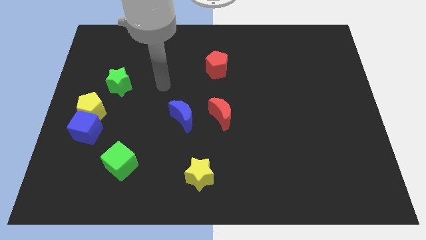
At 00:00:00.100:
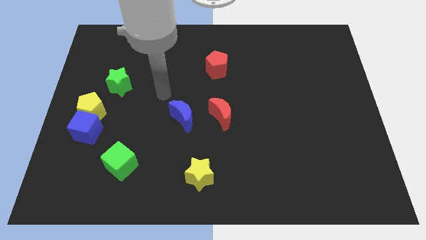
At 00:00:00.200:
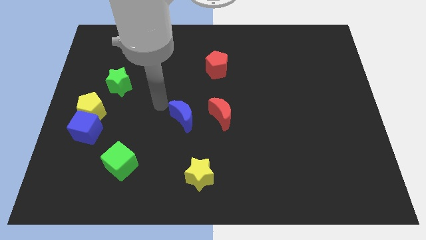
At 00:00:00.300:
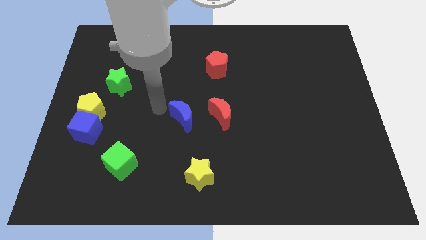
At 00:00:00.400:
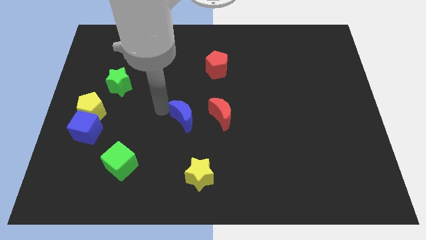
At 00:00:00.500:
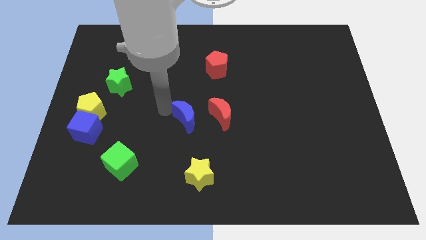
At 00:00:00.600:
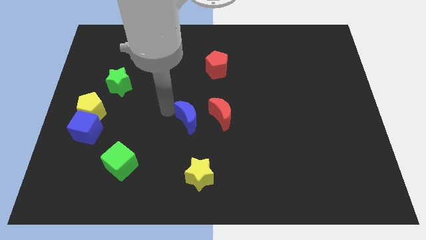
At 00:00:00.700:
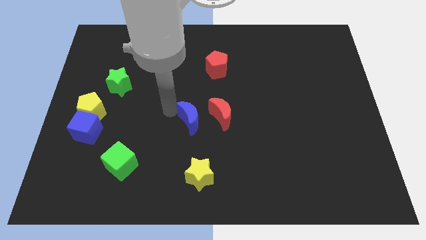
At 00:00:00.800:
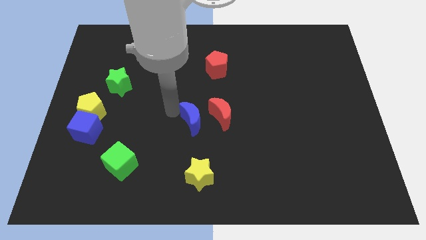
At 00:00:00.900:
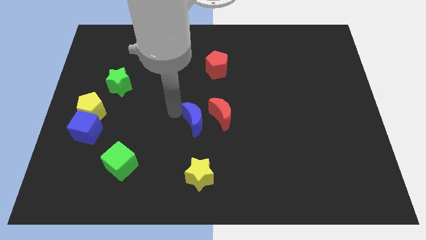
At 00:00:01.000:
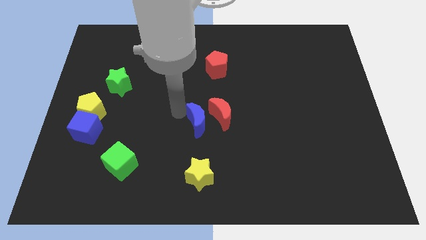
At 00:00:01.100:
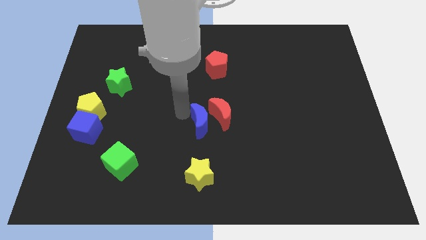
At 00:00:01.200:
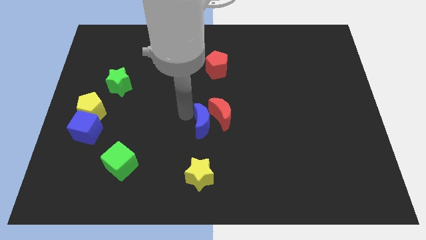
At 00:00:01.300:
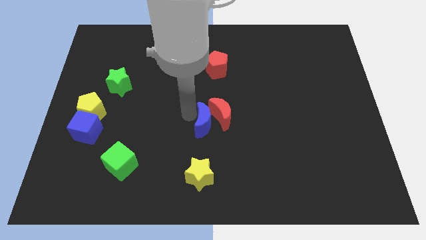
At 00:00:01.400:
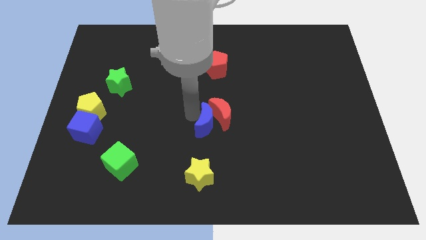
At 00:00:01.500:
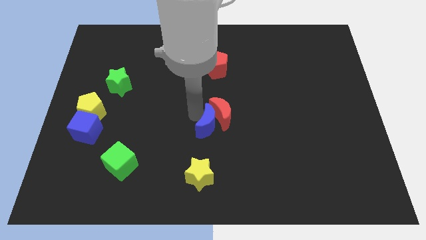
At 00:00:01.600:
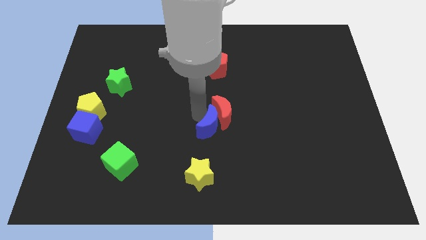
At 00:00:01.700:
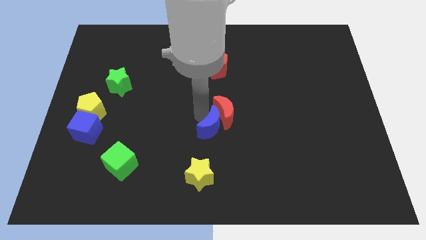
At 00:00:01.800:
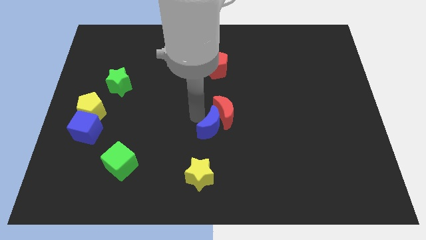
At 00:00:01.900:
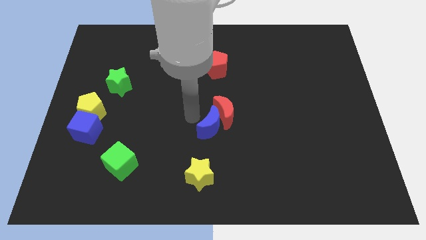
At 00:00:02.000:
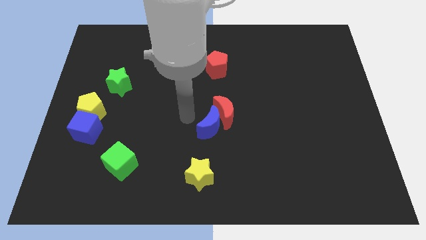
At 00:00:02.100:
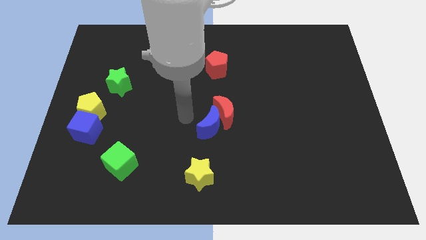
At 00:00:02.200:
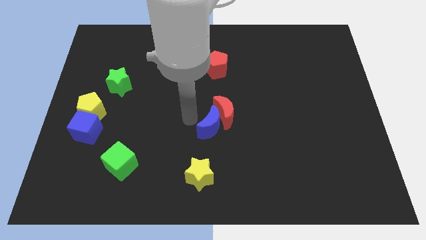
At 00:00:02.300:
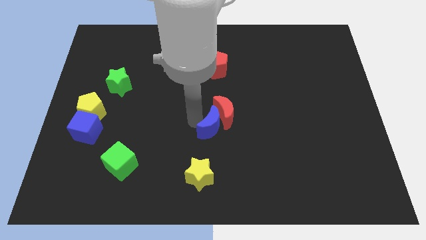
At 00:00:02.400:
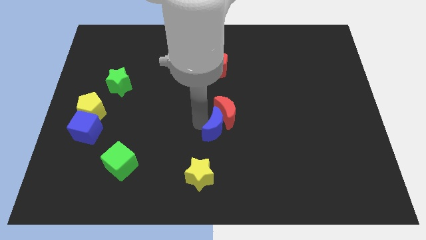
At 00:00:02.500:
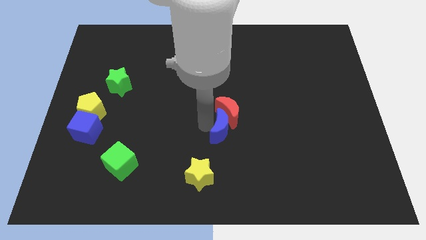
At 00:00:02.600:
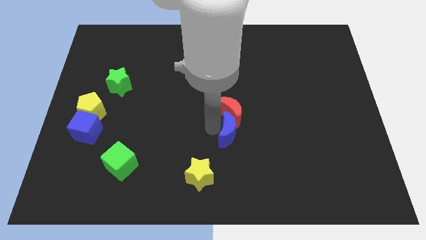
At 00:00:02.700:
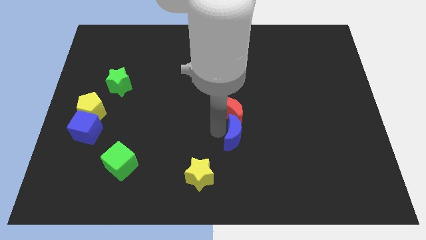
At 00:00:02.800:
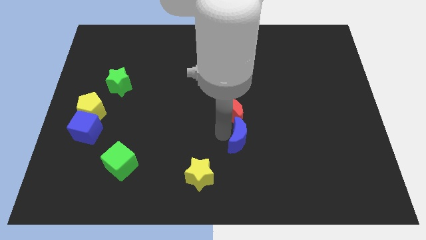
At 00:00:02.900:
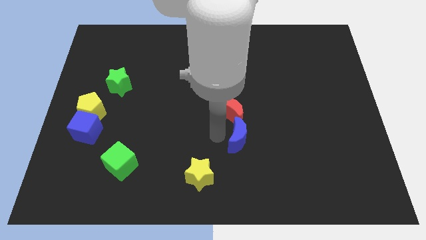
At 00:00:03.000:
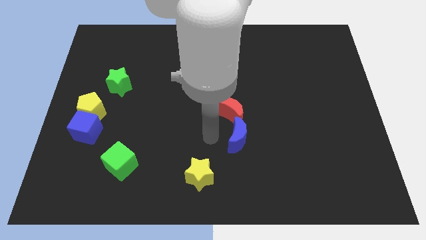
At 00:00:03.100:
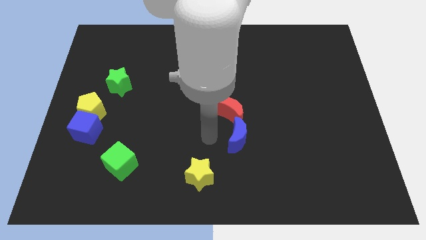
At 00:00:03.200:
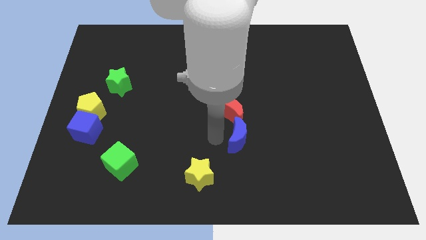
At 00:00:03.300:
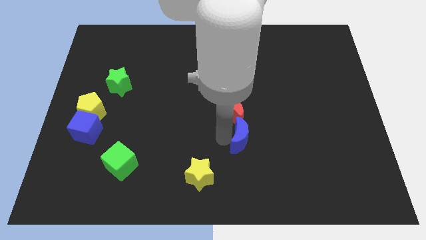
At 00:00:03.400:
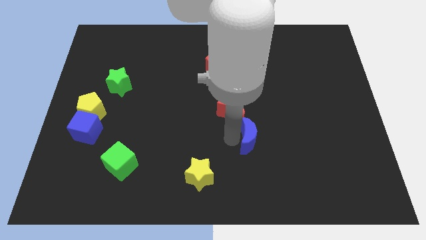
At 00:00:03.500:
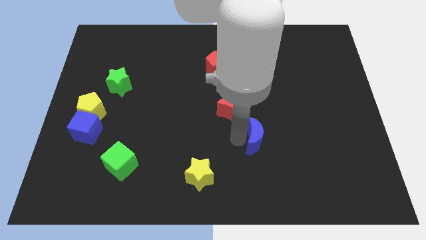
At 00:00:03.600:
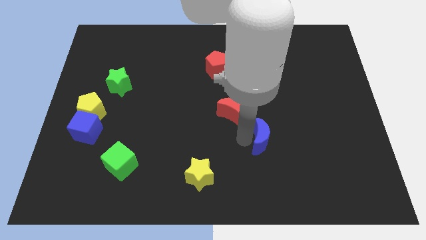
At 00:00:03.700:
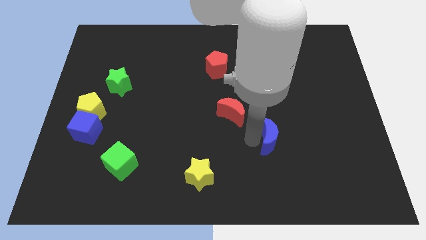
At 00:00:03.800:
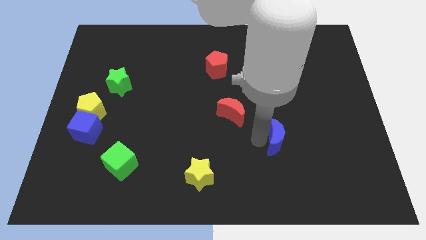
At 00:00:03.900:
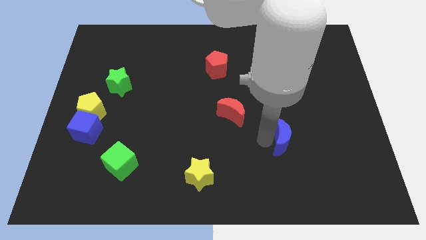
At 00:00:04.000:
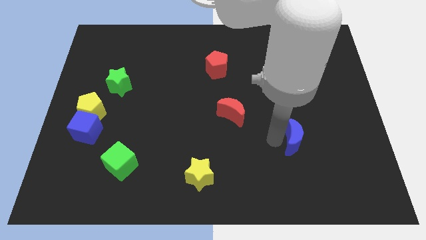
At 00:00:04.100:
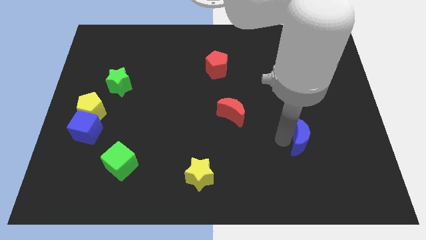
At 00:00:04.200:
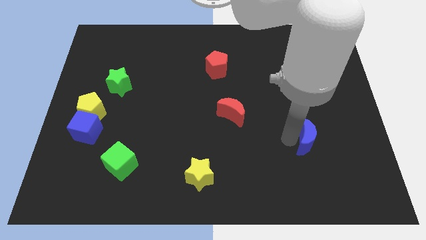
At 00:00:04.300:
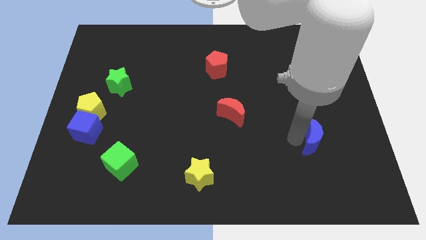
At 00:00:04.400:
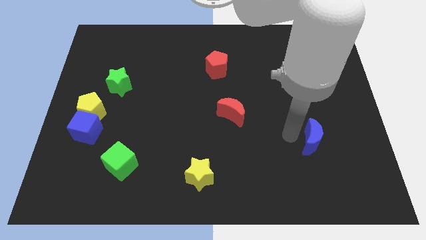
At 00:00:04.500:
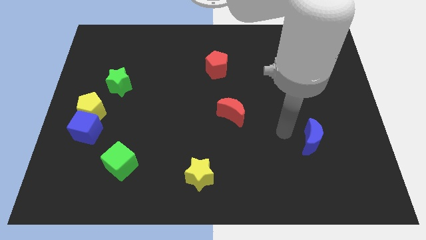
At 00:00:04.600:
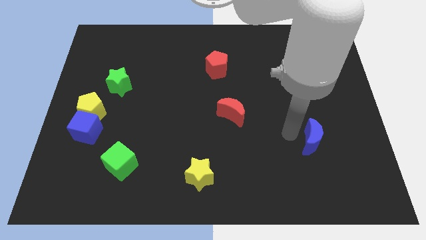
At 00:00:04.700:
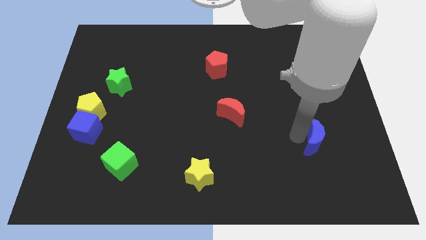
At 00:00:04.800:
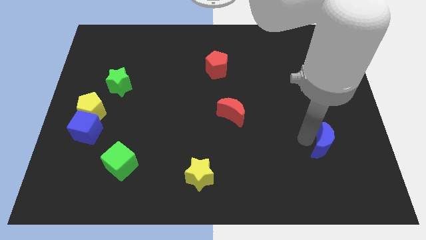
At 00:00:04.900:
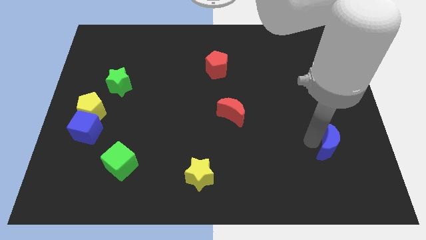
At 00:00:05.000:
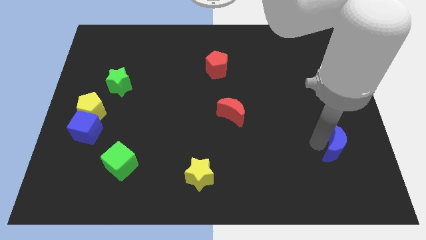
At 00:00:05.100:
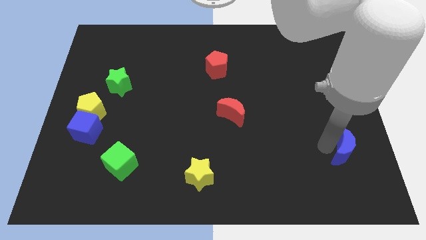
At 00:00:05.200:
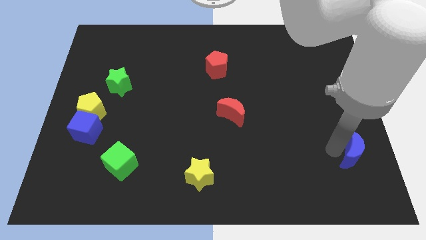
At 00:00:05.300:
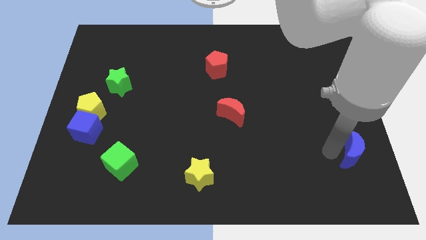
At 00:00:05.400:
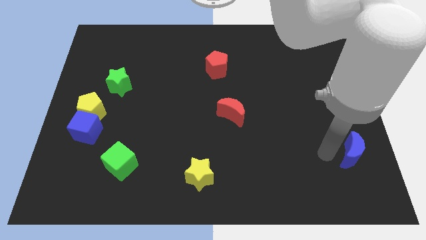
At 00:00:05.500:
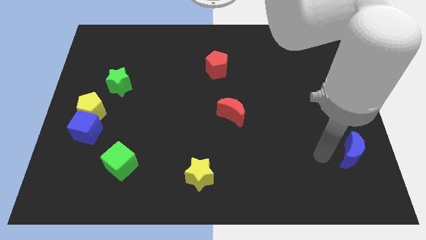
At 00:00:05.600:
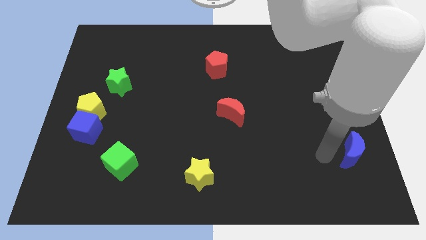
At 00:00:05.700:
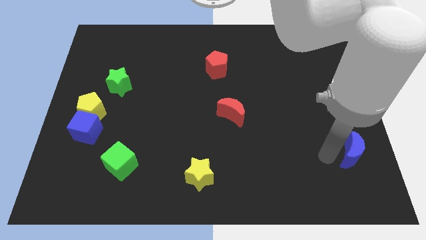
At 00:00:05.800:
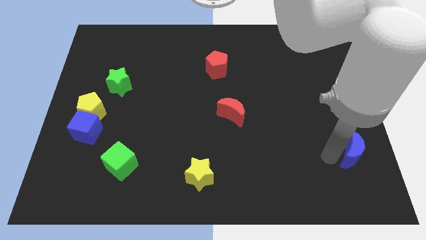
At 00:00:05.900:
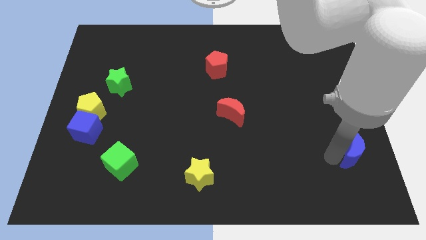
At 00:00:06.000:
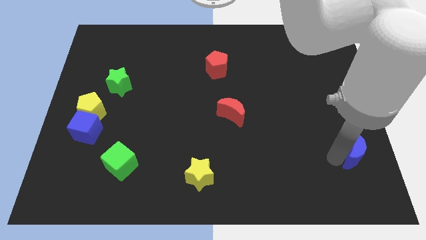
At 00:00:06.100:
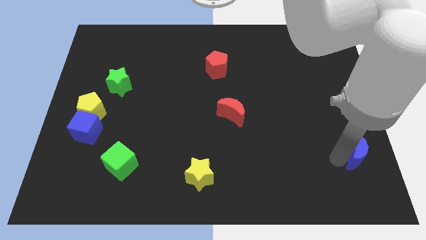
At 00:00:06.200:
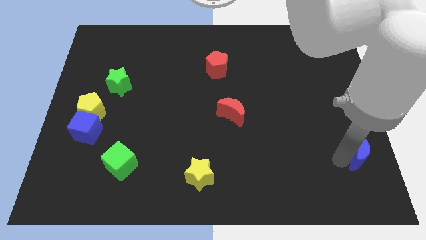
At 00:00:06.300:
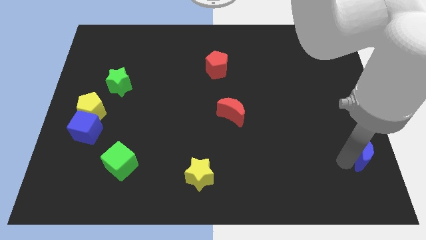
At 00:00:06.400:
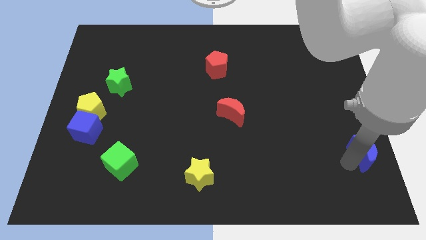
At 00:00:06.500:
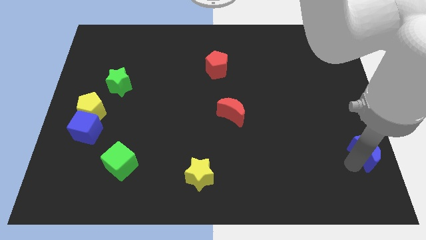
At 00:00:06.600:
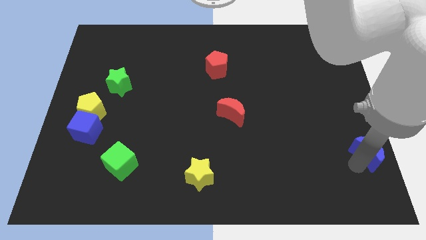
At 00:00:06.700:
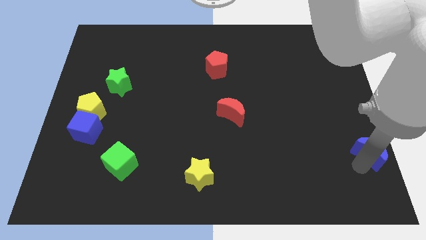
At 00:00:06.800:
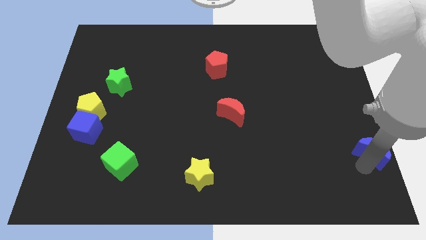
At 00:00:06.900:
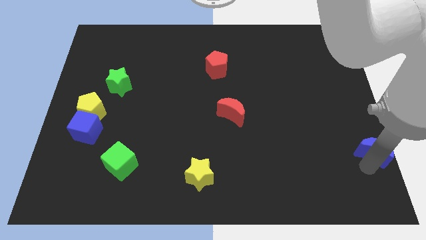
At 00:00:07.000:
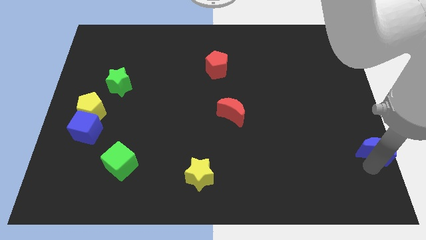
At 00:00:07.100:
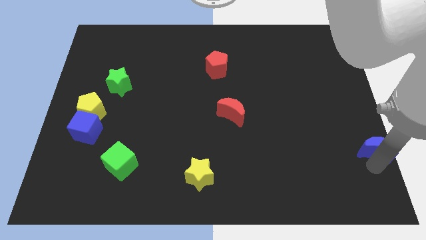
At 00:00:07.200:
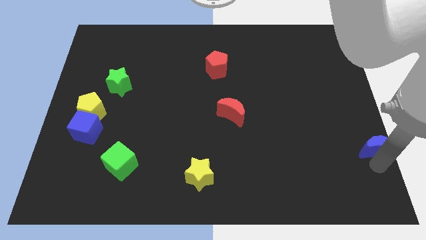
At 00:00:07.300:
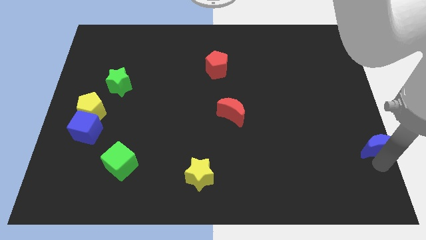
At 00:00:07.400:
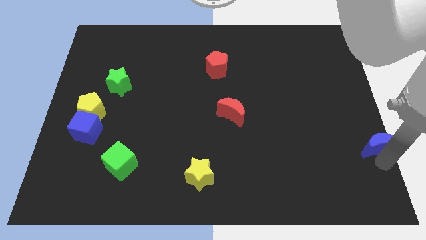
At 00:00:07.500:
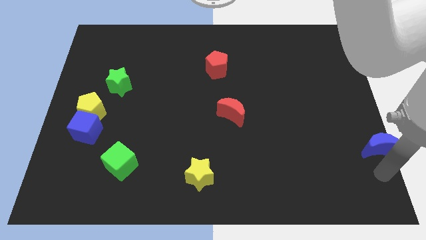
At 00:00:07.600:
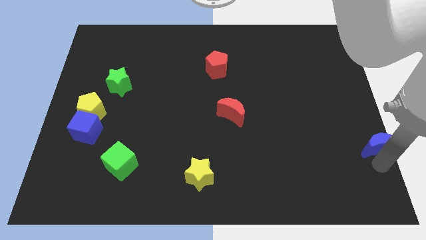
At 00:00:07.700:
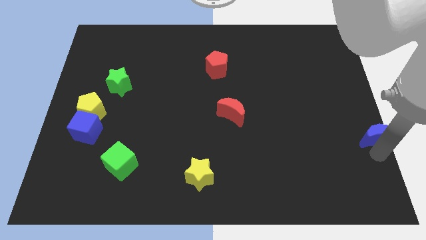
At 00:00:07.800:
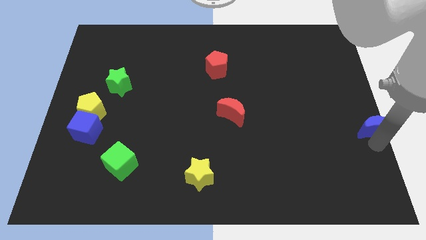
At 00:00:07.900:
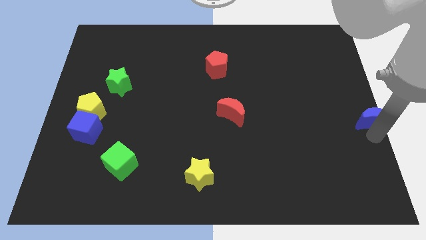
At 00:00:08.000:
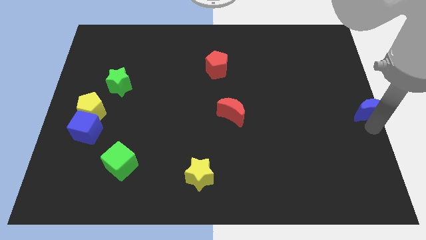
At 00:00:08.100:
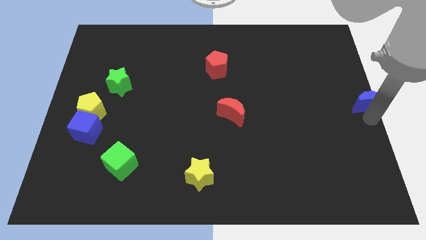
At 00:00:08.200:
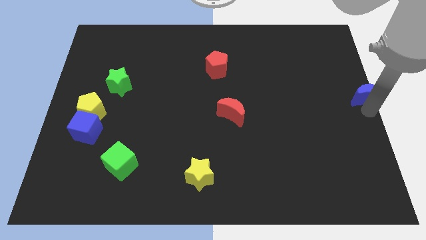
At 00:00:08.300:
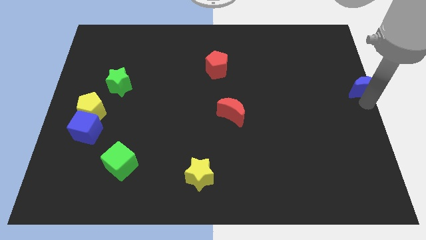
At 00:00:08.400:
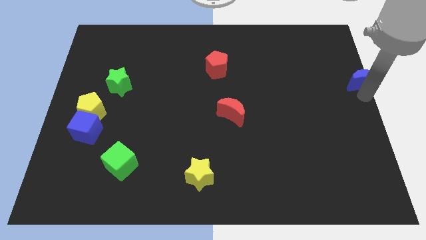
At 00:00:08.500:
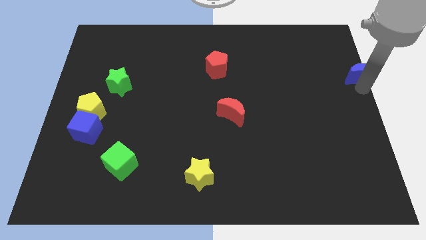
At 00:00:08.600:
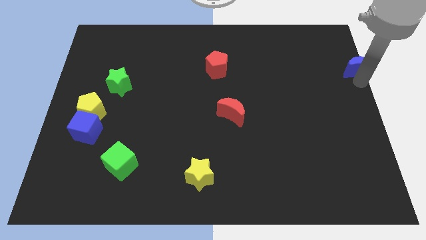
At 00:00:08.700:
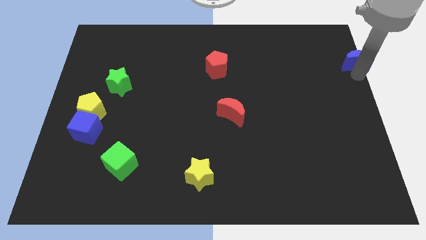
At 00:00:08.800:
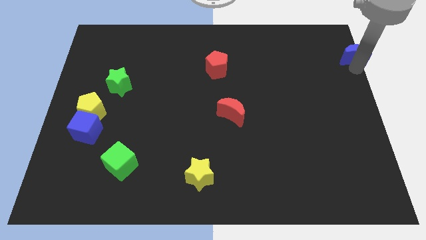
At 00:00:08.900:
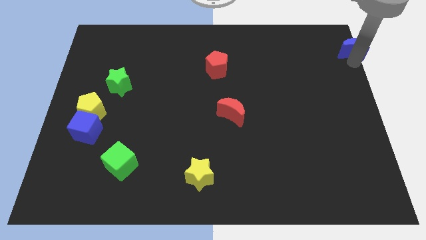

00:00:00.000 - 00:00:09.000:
slide the blue moon to the top right
